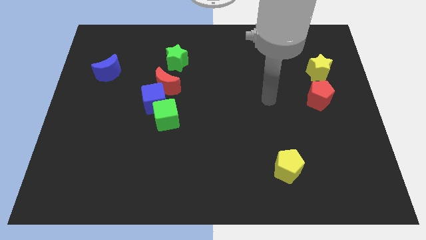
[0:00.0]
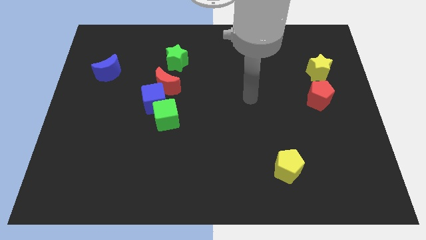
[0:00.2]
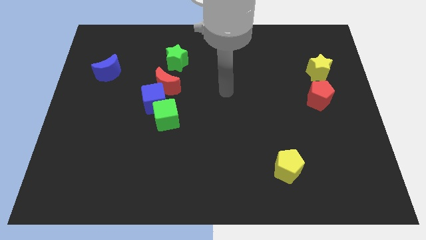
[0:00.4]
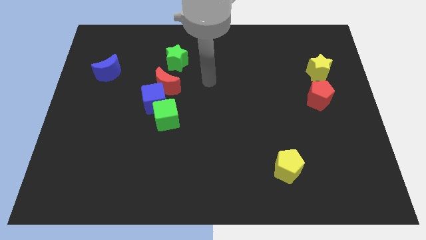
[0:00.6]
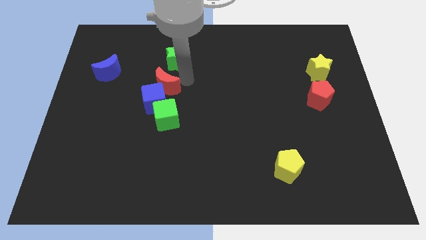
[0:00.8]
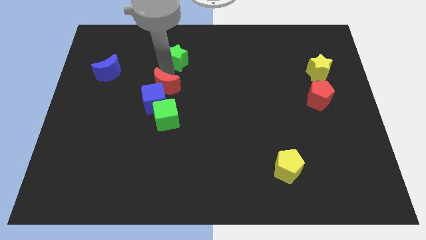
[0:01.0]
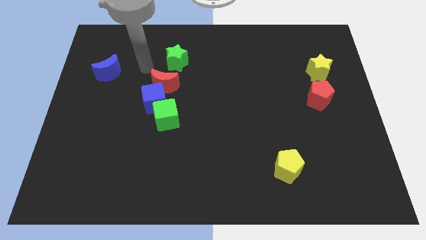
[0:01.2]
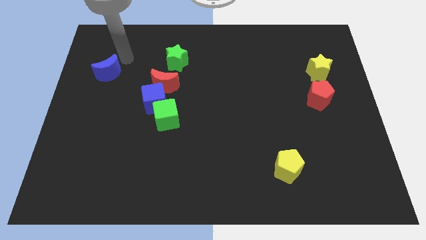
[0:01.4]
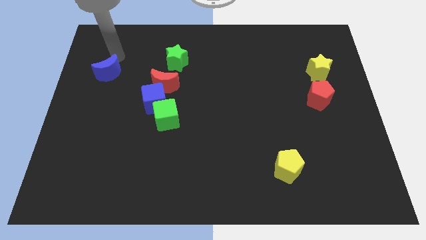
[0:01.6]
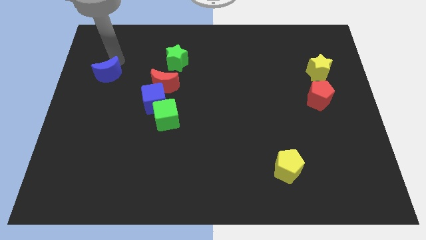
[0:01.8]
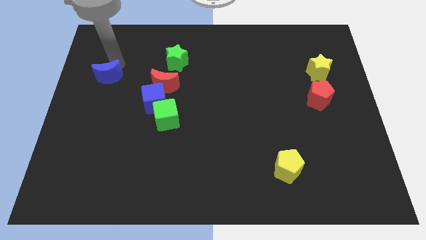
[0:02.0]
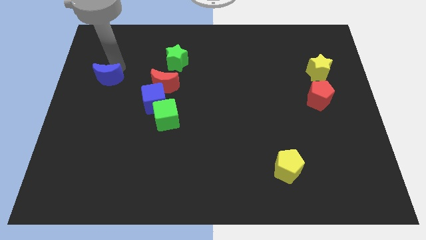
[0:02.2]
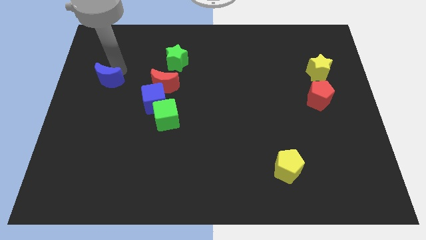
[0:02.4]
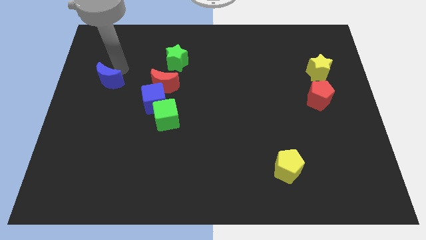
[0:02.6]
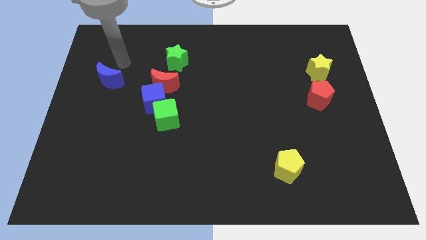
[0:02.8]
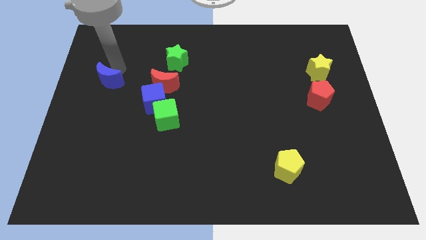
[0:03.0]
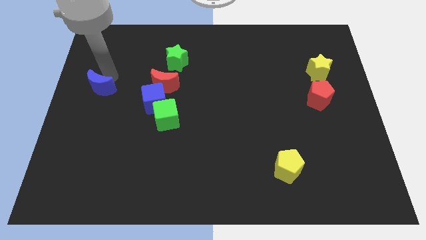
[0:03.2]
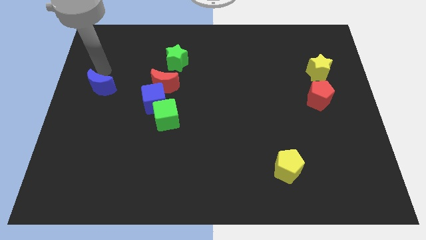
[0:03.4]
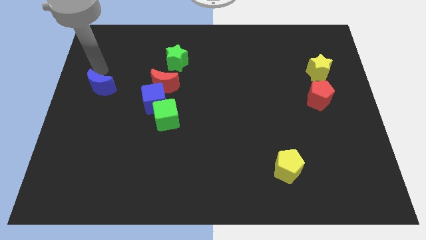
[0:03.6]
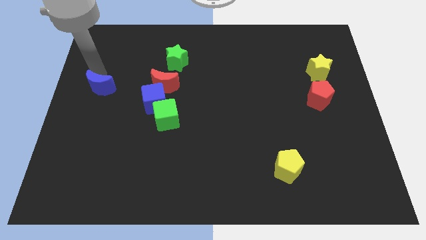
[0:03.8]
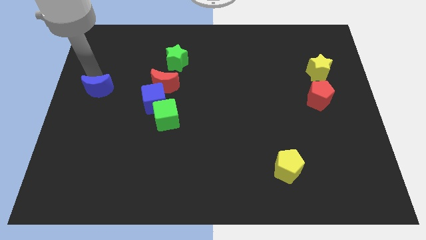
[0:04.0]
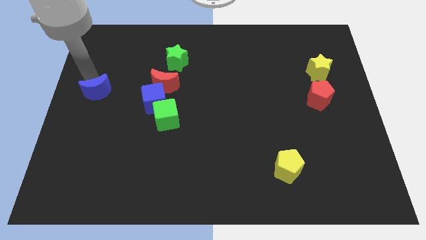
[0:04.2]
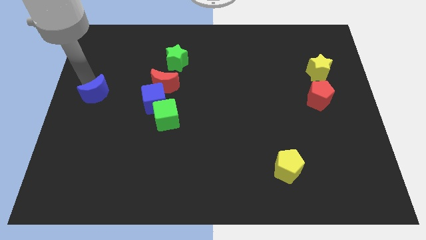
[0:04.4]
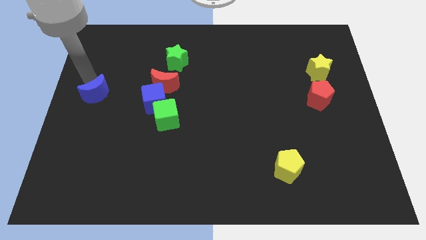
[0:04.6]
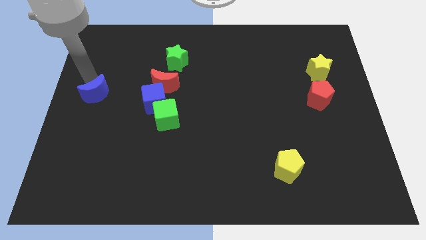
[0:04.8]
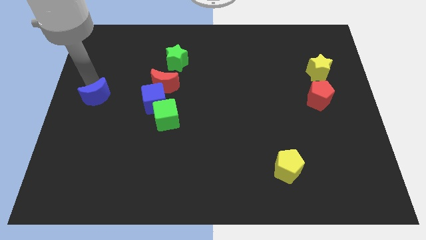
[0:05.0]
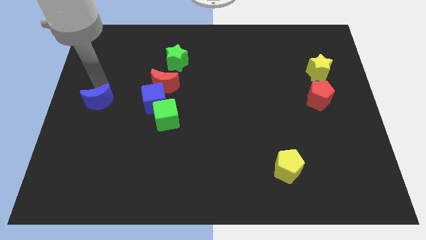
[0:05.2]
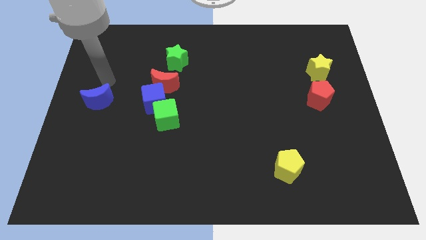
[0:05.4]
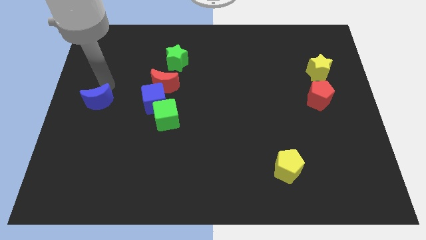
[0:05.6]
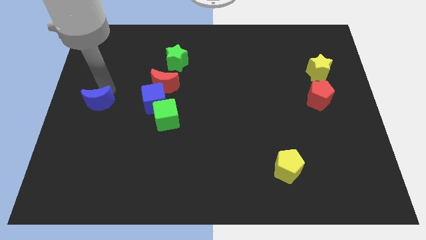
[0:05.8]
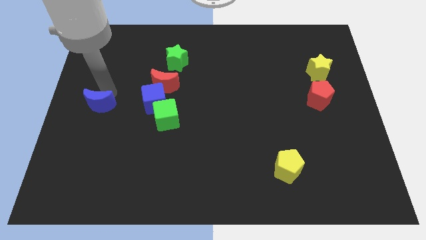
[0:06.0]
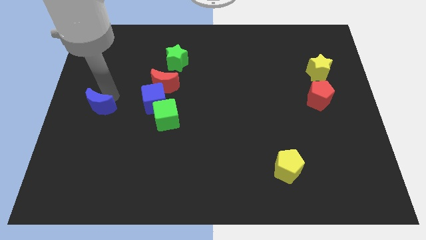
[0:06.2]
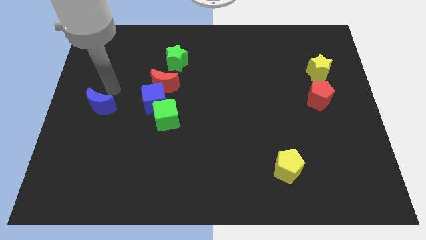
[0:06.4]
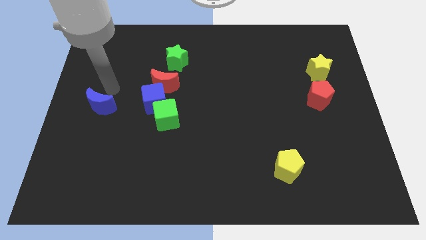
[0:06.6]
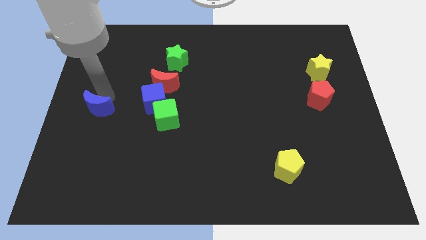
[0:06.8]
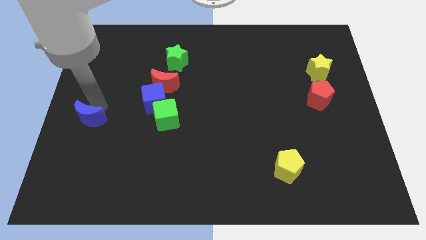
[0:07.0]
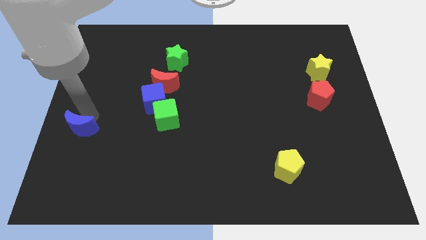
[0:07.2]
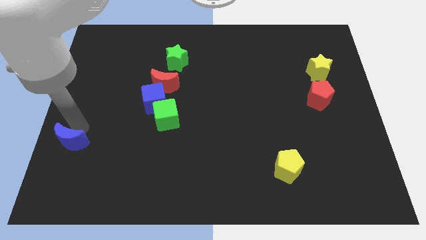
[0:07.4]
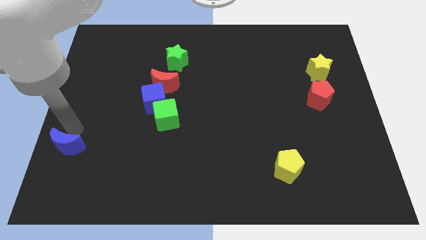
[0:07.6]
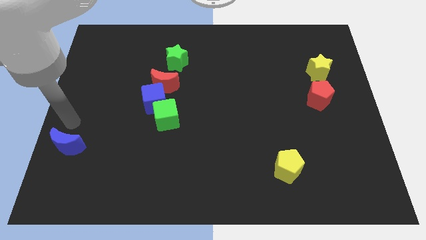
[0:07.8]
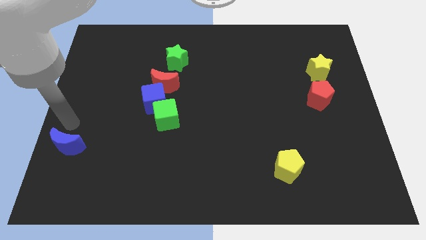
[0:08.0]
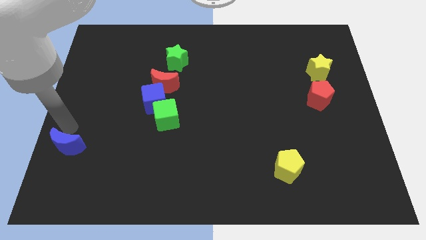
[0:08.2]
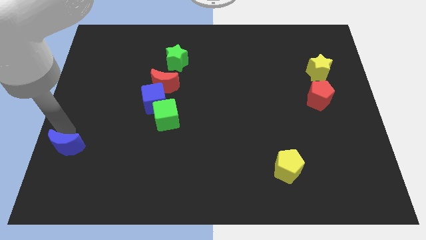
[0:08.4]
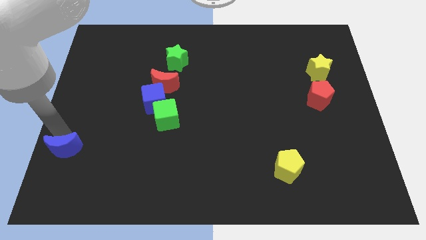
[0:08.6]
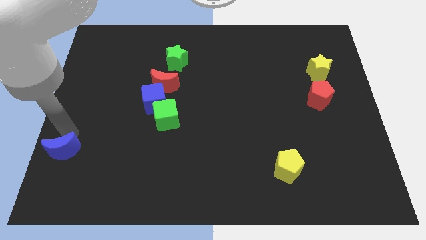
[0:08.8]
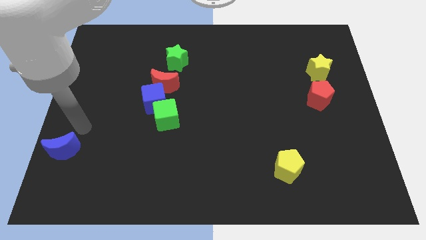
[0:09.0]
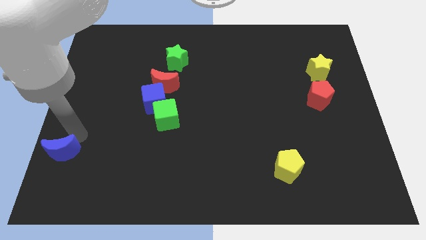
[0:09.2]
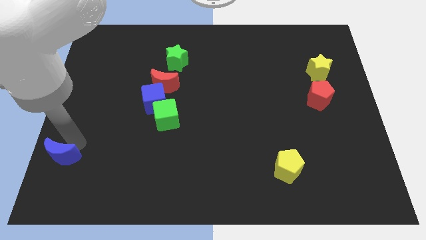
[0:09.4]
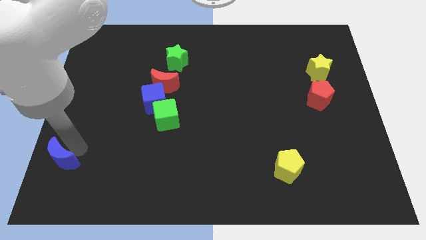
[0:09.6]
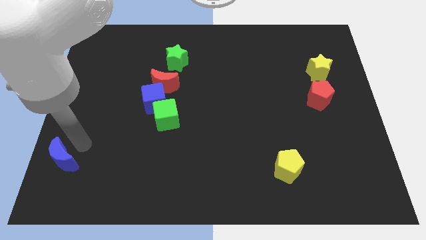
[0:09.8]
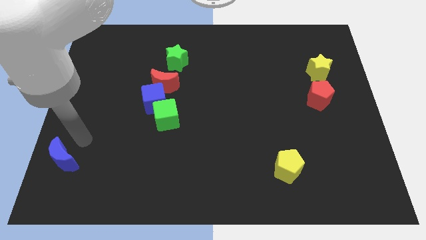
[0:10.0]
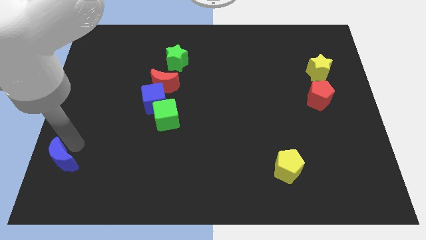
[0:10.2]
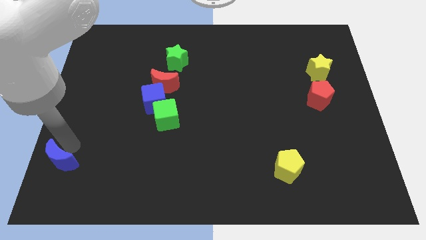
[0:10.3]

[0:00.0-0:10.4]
put the blue moon to the lower left corner

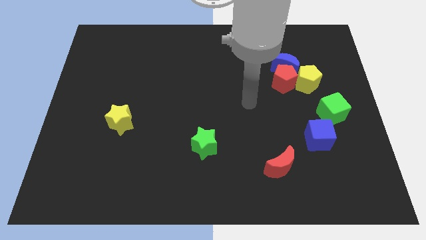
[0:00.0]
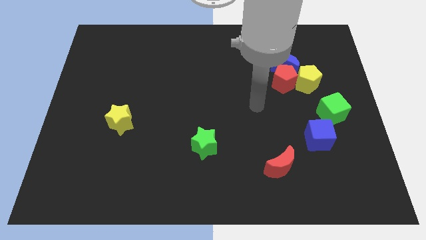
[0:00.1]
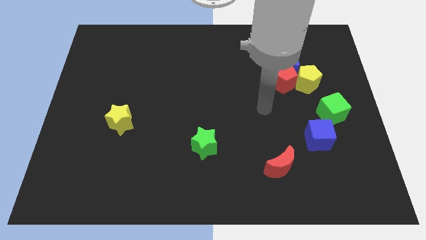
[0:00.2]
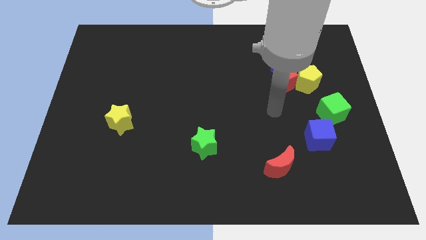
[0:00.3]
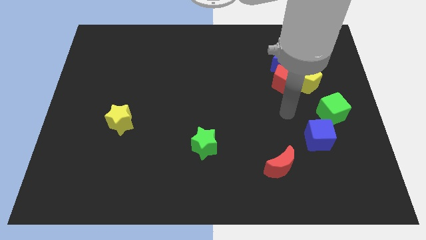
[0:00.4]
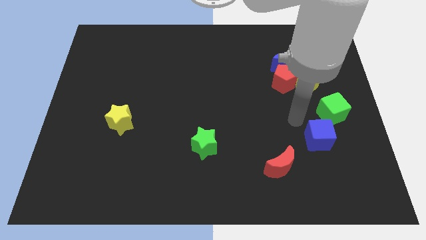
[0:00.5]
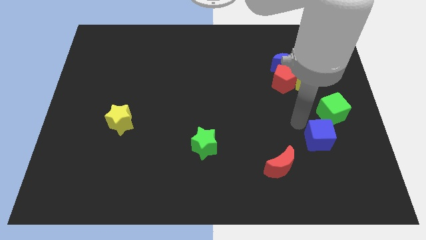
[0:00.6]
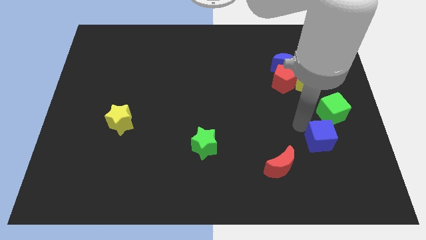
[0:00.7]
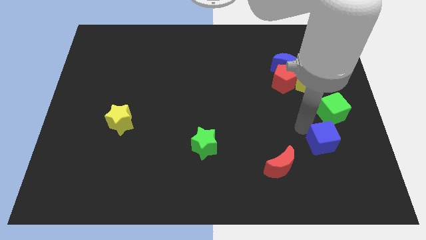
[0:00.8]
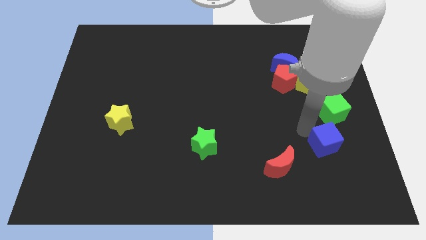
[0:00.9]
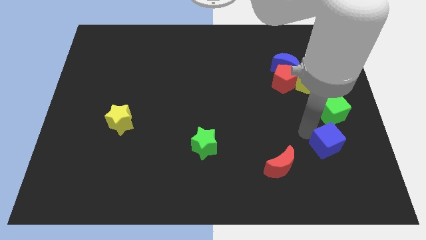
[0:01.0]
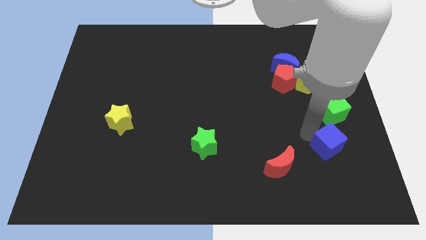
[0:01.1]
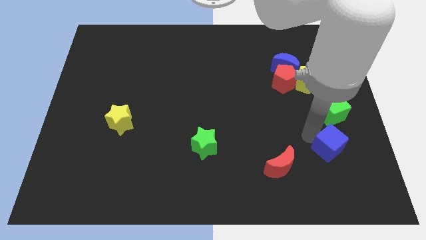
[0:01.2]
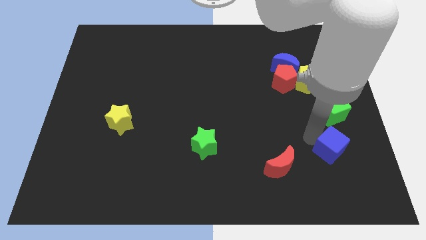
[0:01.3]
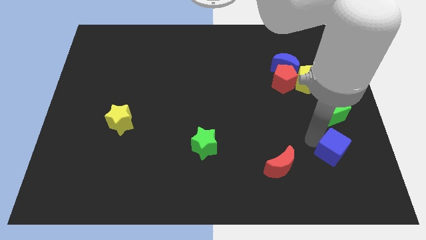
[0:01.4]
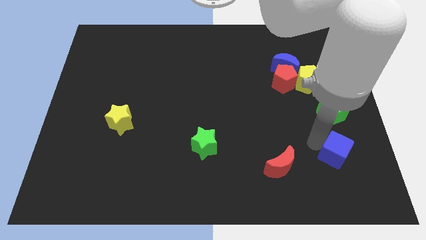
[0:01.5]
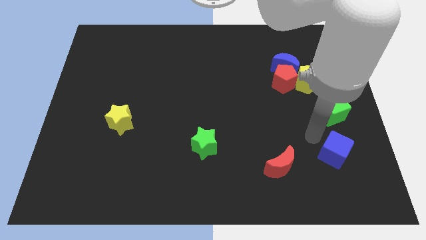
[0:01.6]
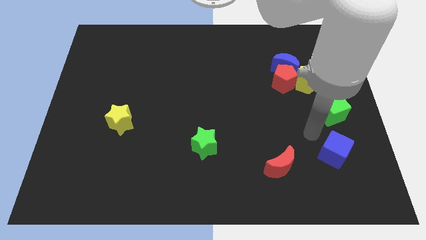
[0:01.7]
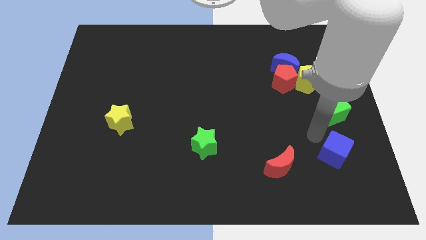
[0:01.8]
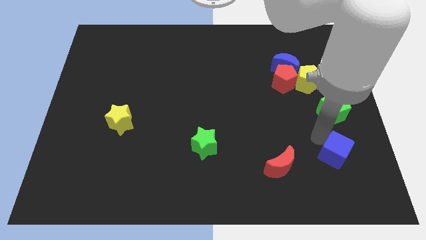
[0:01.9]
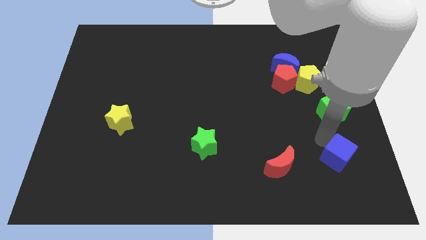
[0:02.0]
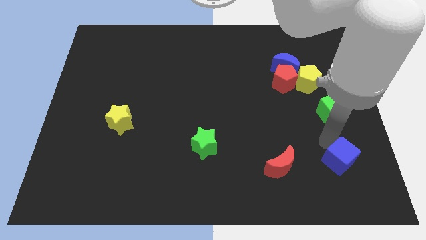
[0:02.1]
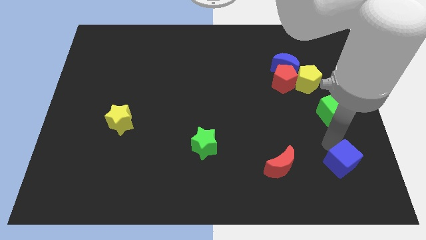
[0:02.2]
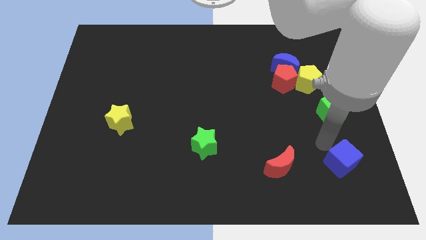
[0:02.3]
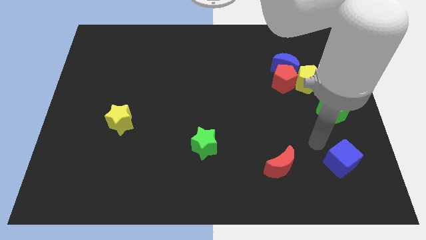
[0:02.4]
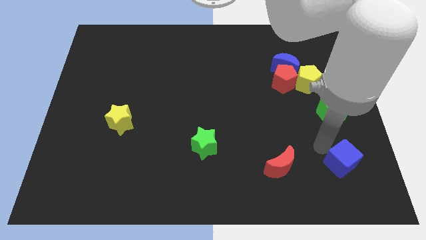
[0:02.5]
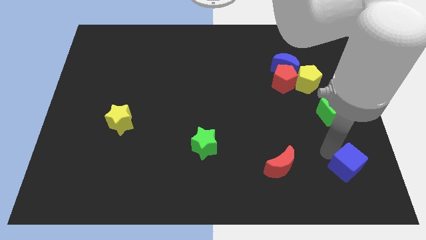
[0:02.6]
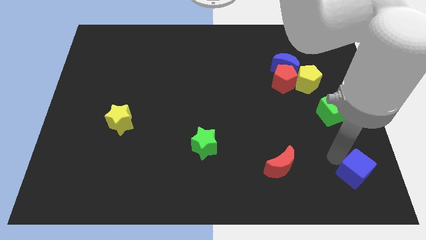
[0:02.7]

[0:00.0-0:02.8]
push the blue cube to the bottom right of the board
